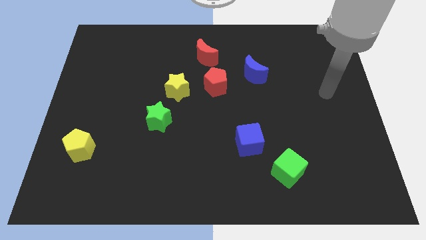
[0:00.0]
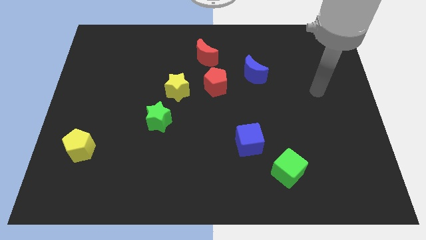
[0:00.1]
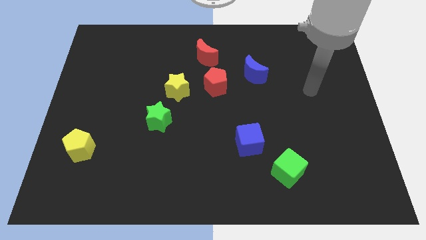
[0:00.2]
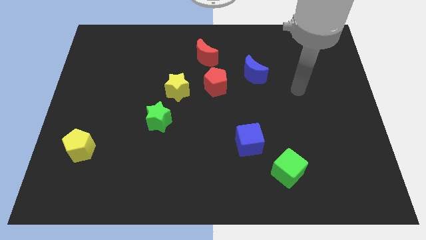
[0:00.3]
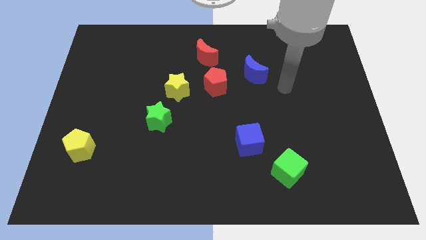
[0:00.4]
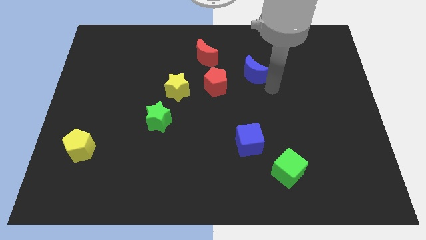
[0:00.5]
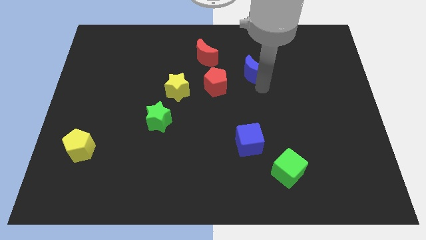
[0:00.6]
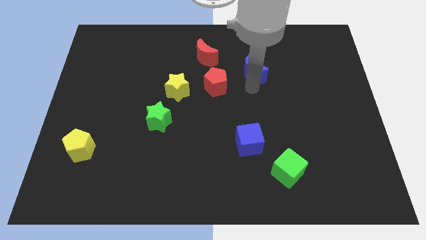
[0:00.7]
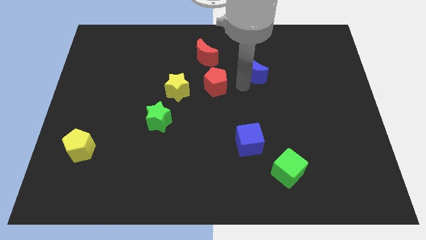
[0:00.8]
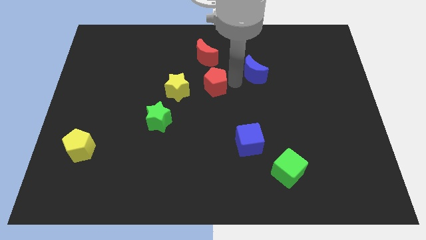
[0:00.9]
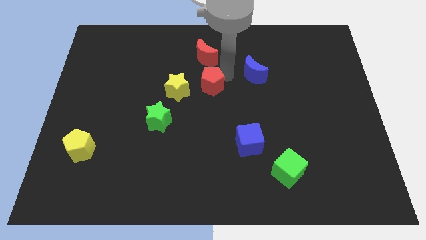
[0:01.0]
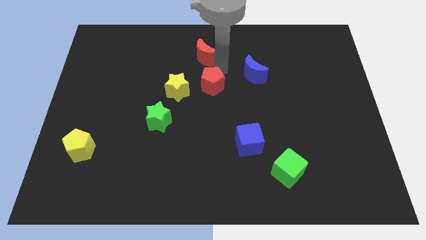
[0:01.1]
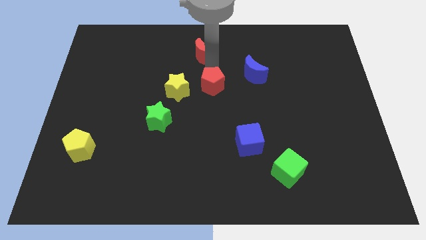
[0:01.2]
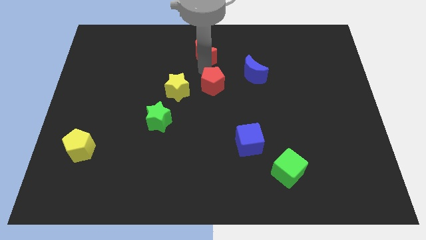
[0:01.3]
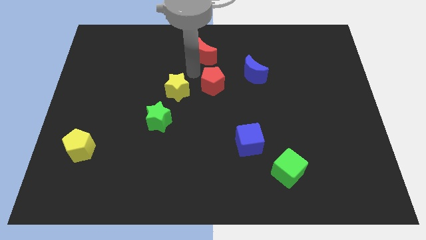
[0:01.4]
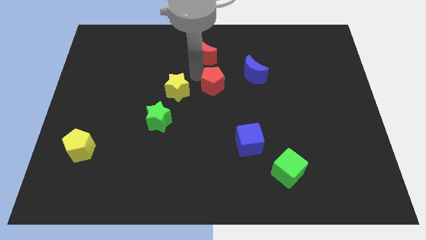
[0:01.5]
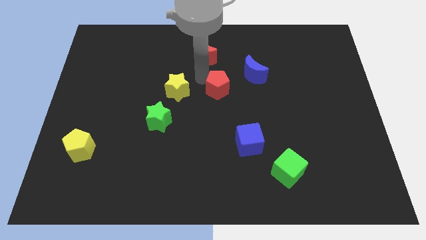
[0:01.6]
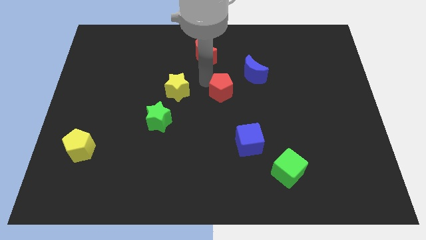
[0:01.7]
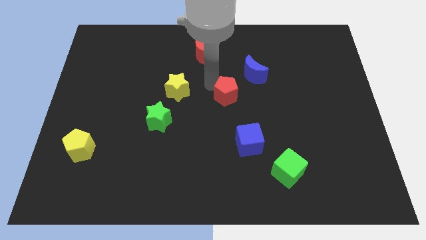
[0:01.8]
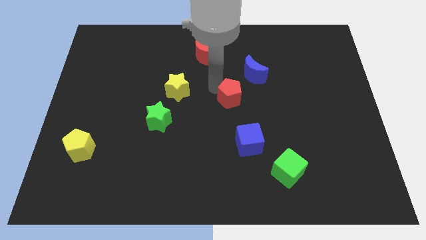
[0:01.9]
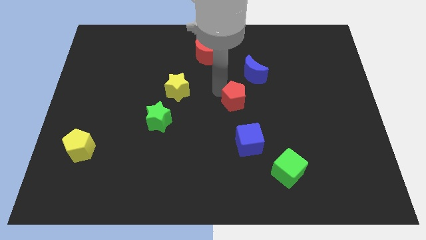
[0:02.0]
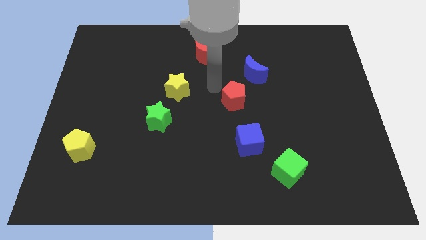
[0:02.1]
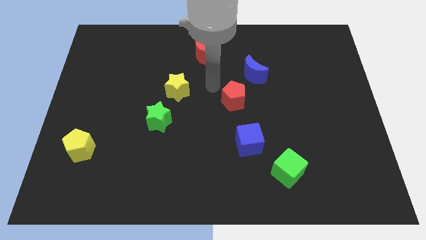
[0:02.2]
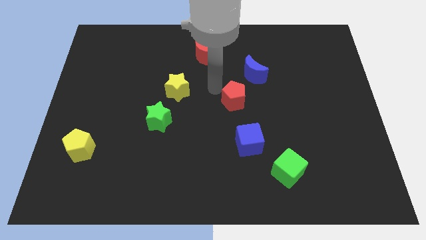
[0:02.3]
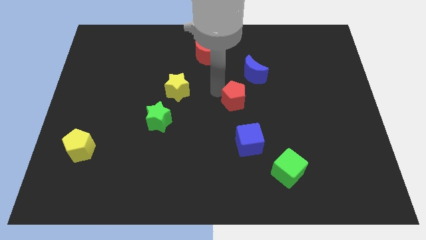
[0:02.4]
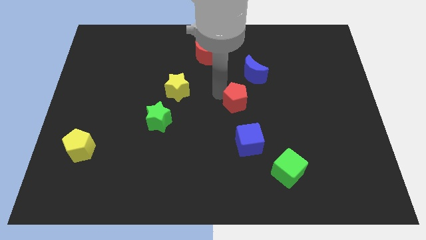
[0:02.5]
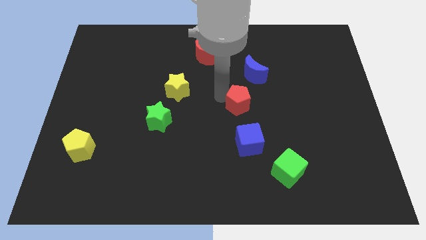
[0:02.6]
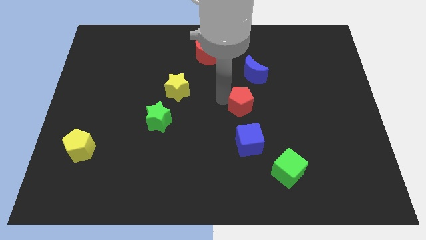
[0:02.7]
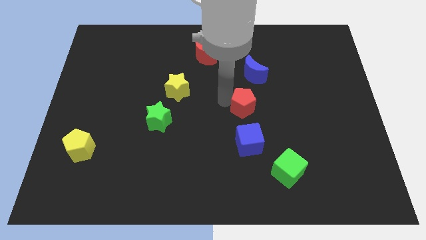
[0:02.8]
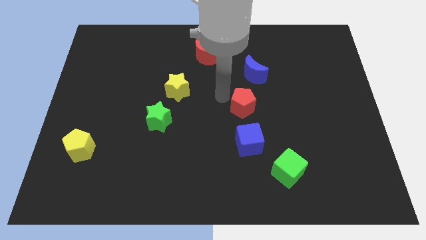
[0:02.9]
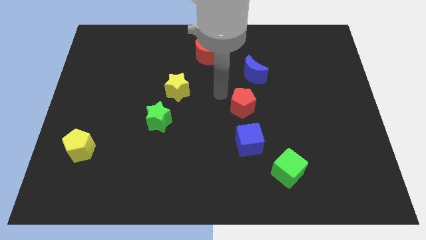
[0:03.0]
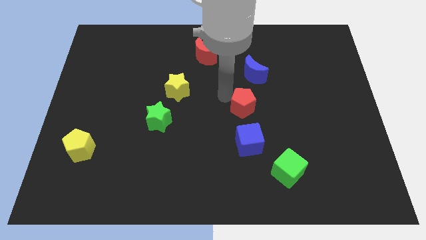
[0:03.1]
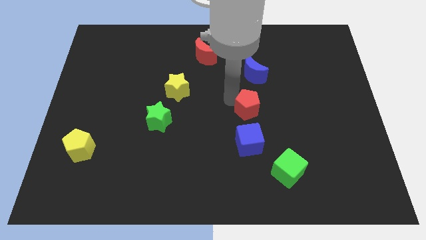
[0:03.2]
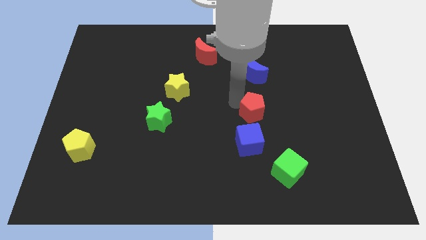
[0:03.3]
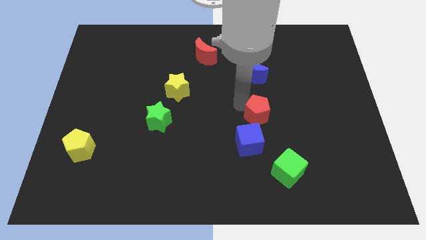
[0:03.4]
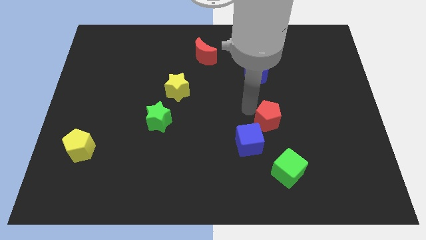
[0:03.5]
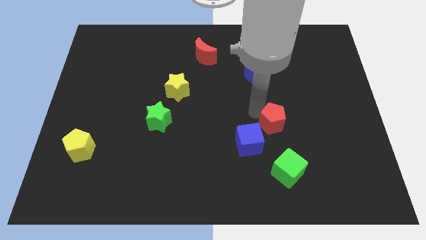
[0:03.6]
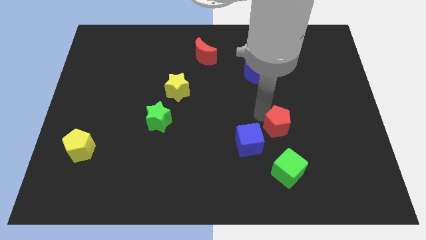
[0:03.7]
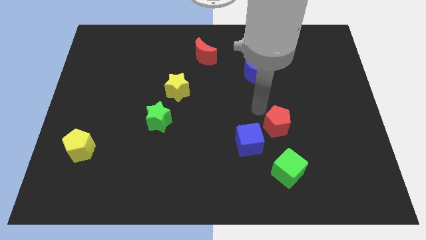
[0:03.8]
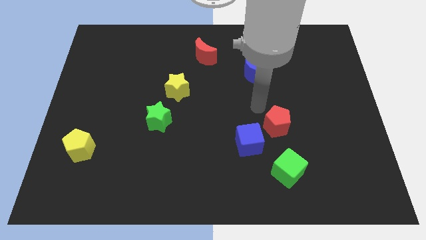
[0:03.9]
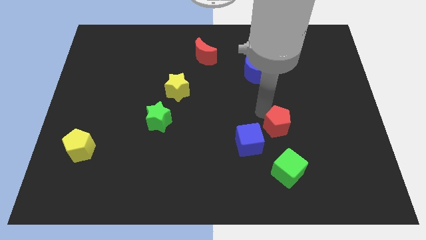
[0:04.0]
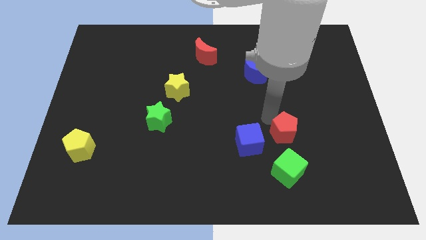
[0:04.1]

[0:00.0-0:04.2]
move the red pentagon down and right diagonally

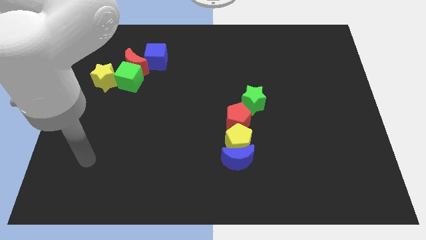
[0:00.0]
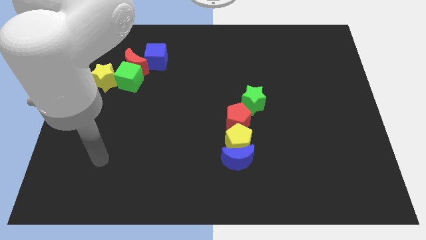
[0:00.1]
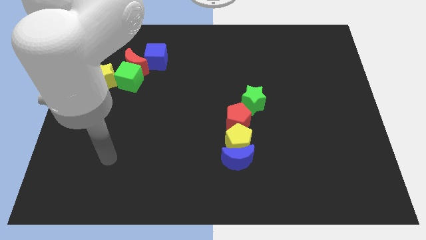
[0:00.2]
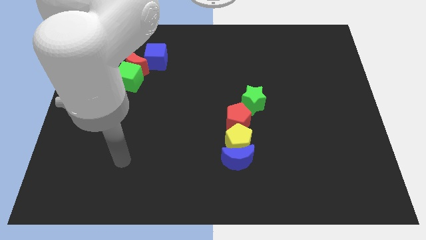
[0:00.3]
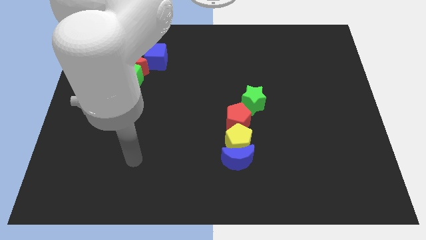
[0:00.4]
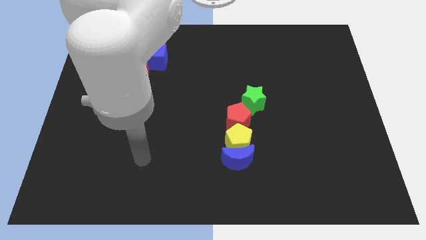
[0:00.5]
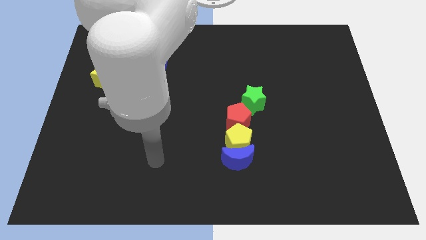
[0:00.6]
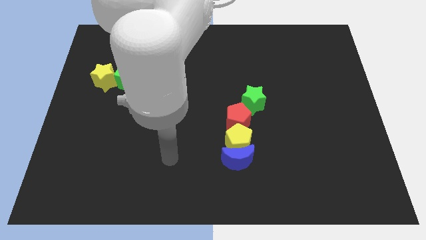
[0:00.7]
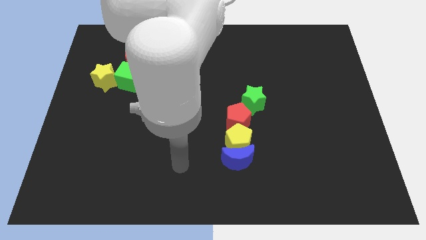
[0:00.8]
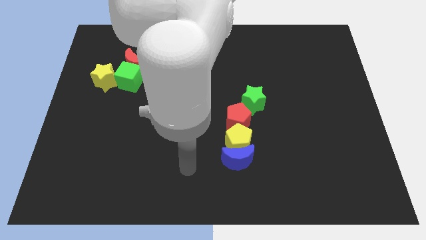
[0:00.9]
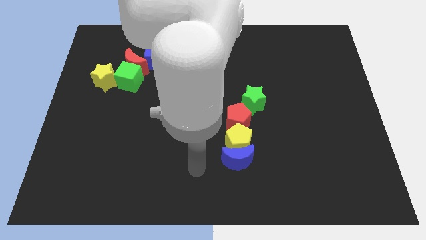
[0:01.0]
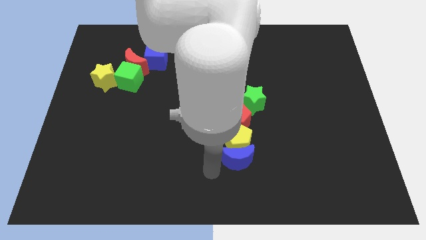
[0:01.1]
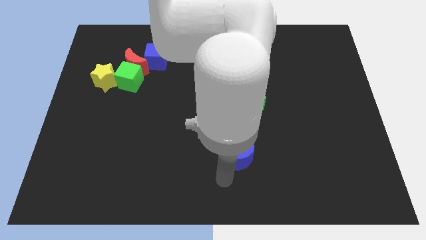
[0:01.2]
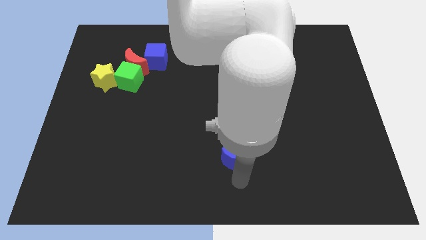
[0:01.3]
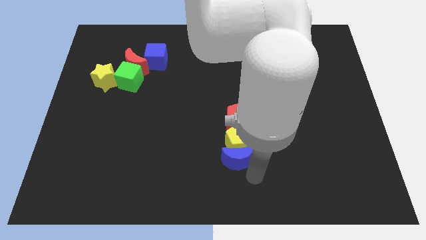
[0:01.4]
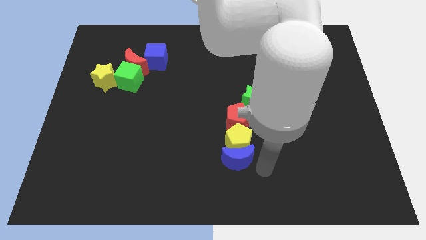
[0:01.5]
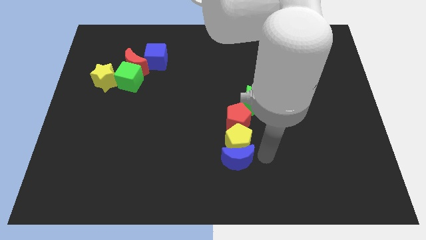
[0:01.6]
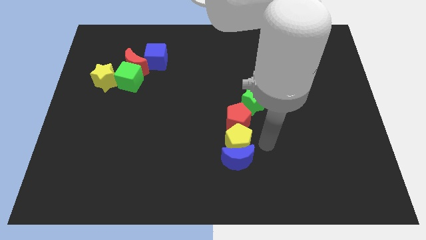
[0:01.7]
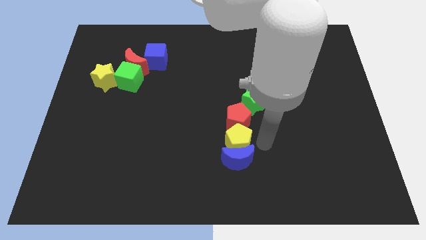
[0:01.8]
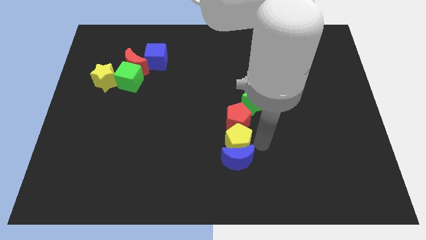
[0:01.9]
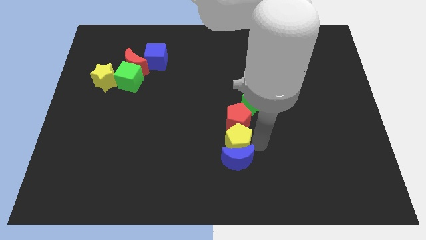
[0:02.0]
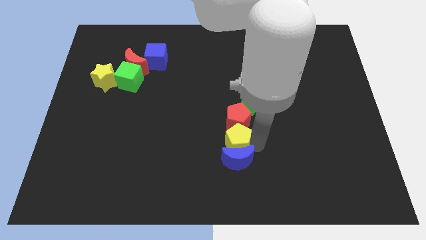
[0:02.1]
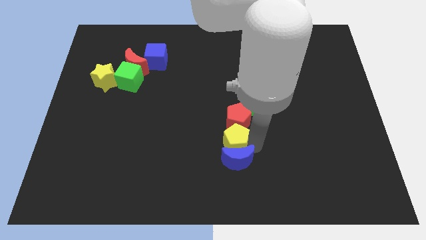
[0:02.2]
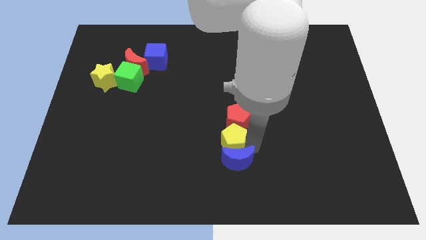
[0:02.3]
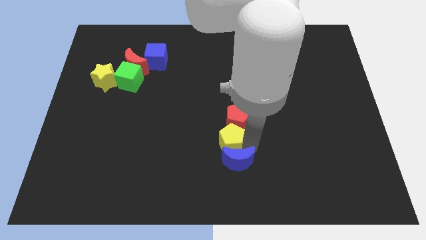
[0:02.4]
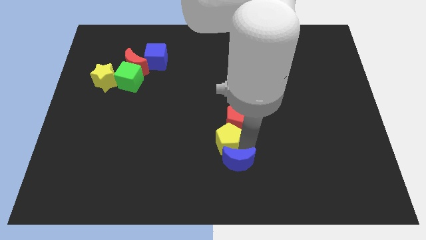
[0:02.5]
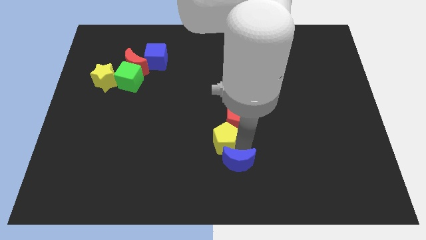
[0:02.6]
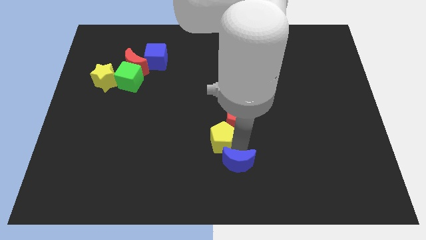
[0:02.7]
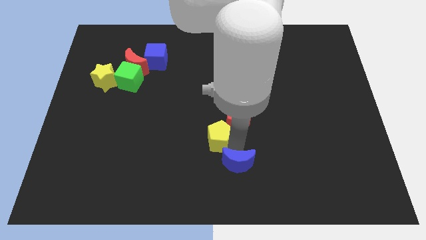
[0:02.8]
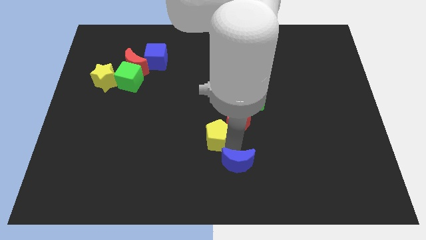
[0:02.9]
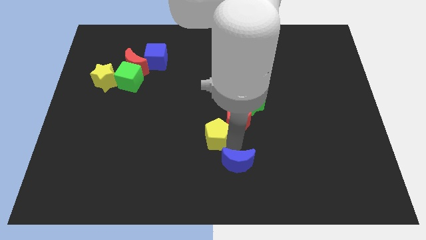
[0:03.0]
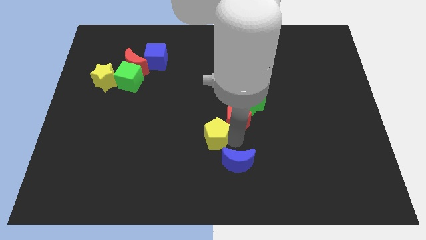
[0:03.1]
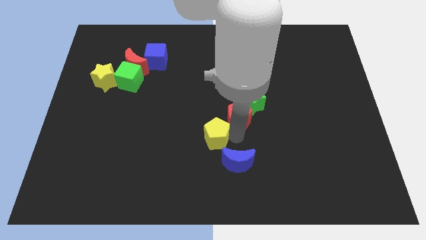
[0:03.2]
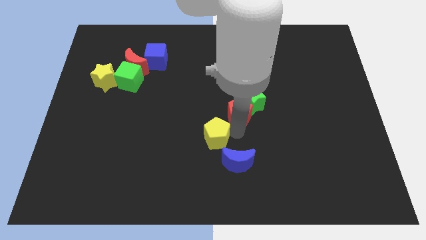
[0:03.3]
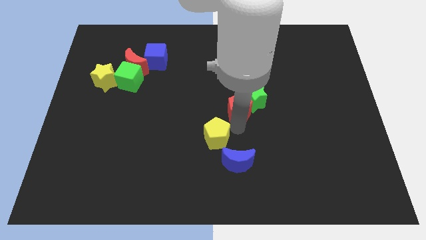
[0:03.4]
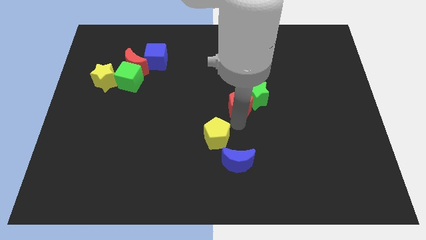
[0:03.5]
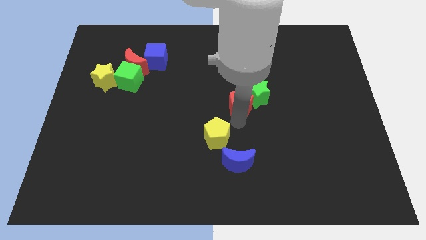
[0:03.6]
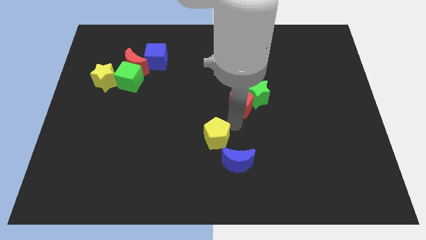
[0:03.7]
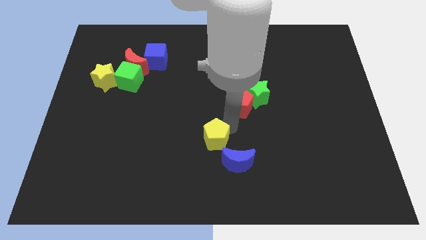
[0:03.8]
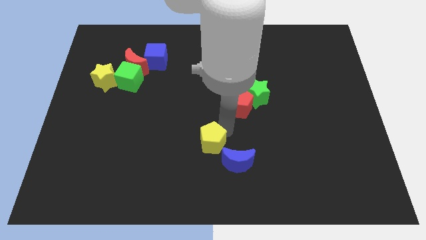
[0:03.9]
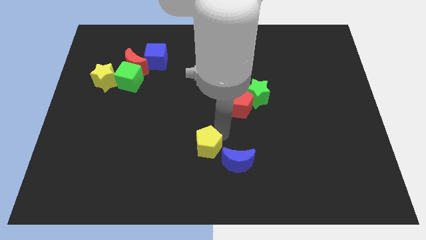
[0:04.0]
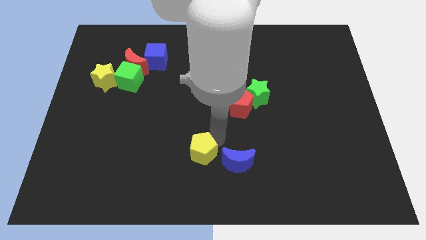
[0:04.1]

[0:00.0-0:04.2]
slide the yellow pentagon a little to the left

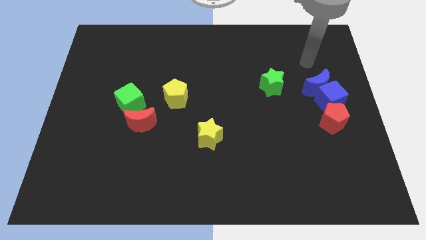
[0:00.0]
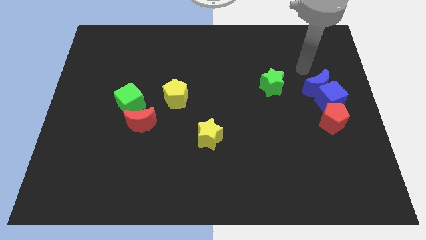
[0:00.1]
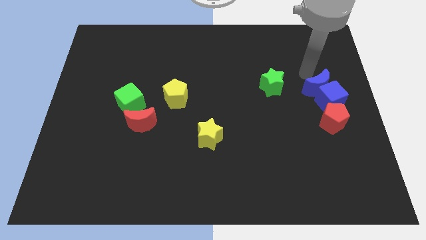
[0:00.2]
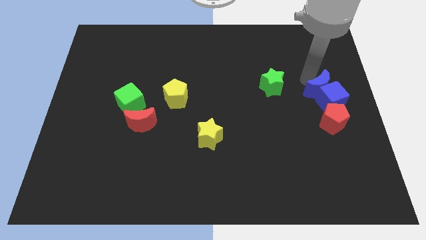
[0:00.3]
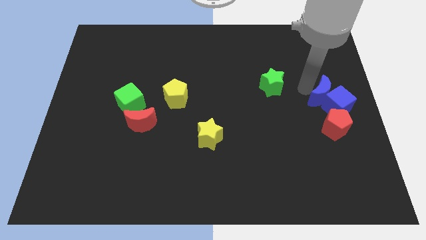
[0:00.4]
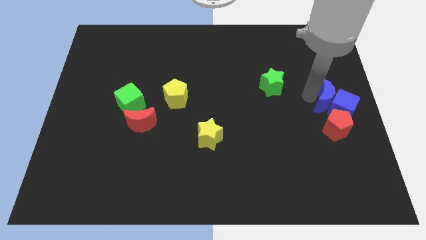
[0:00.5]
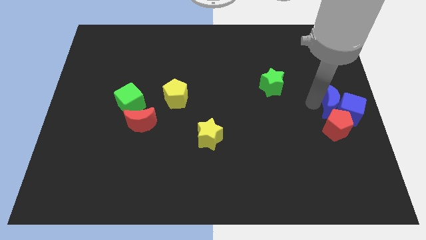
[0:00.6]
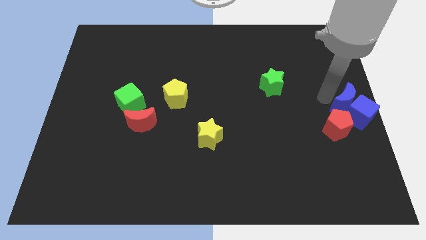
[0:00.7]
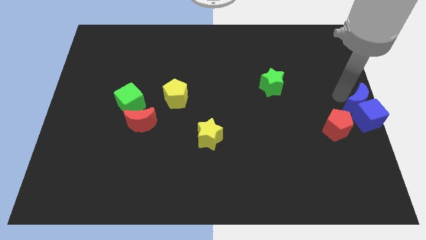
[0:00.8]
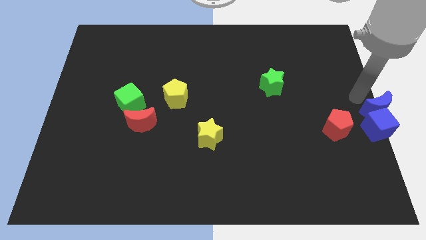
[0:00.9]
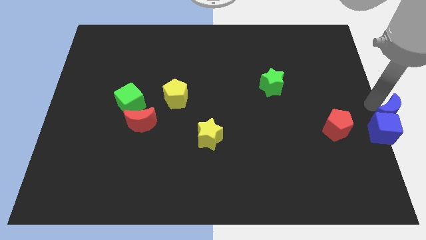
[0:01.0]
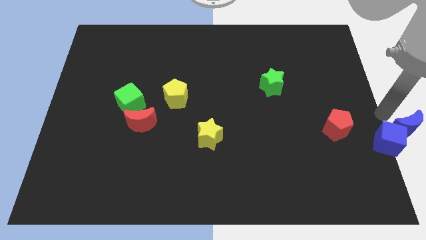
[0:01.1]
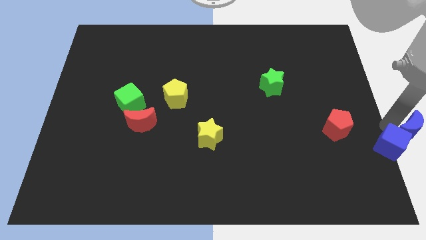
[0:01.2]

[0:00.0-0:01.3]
push the blue cube downwards a little bit
